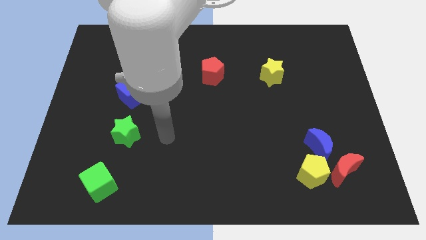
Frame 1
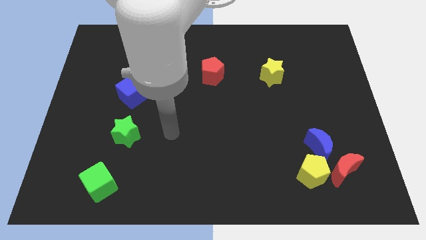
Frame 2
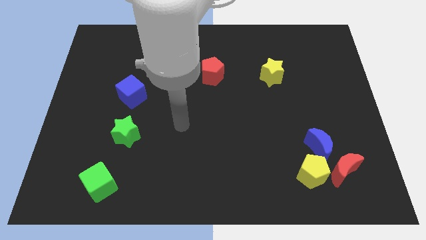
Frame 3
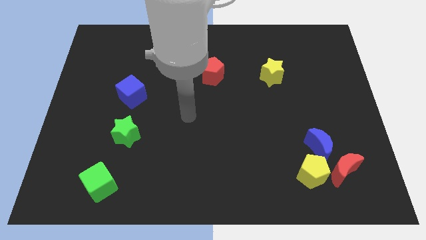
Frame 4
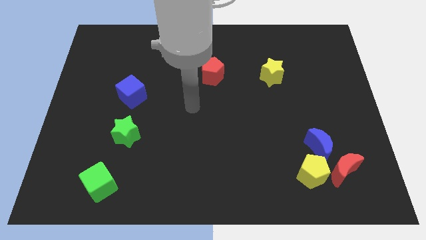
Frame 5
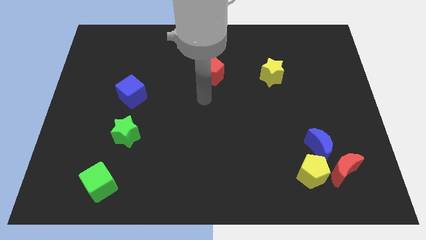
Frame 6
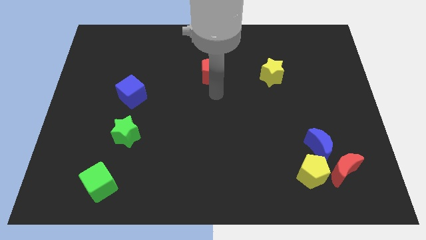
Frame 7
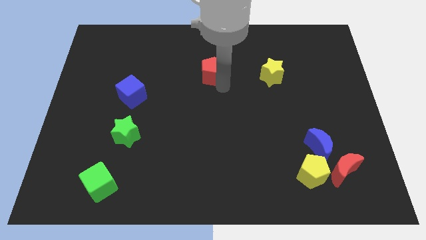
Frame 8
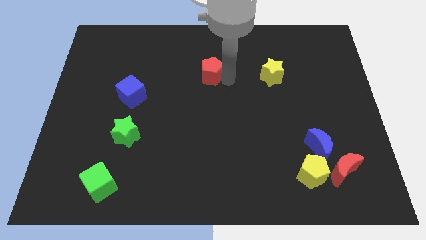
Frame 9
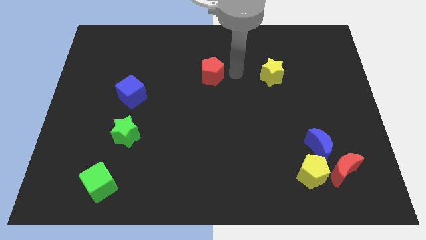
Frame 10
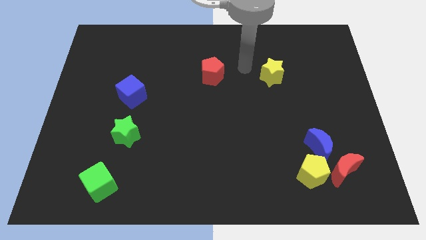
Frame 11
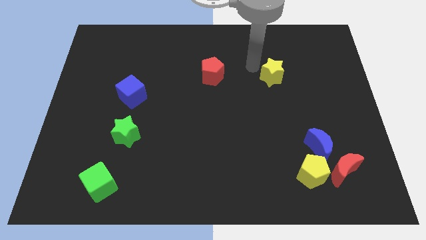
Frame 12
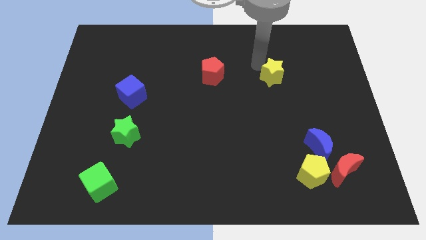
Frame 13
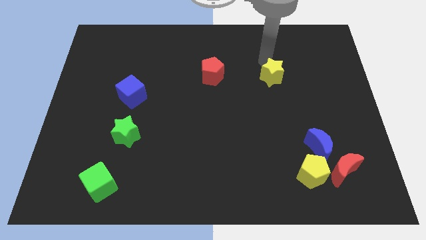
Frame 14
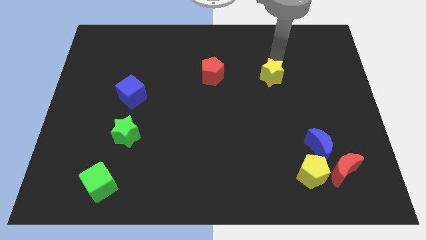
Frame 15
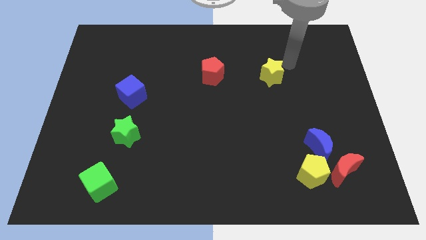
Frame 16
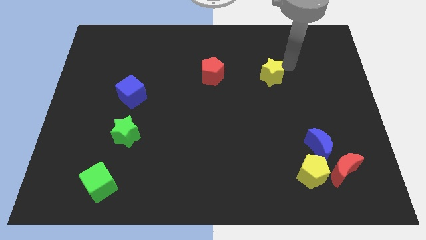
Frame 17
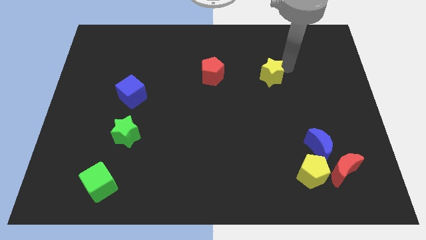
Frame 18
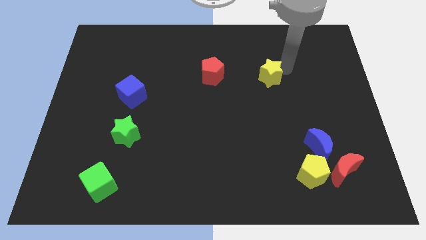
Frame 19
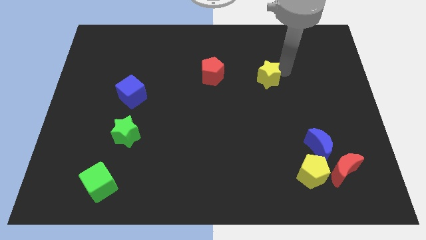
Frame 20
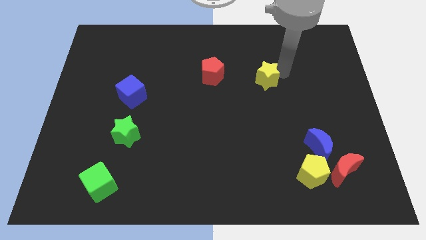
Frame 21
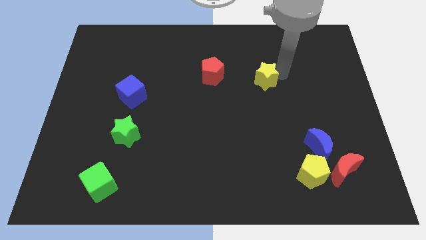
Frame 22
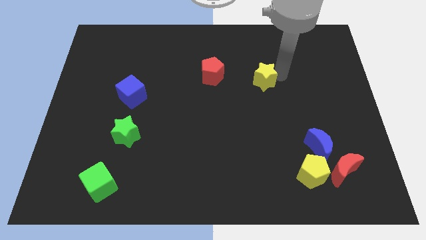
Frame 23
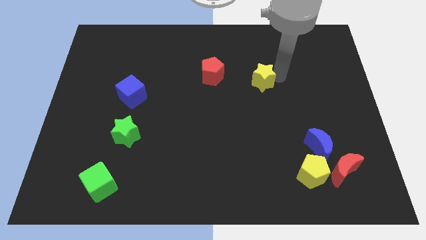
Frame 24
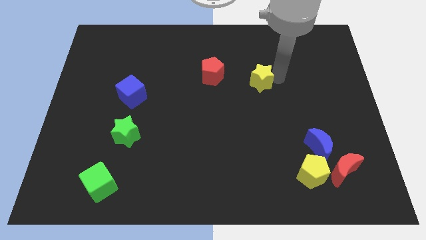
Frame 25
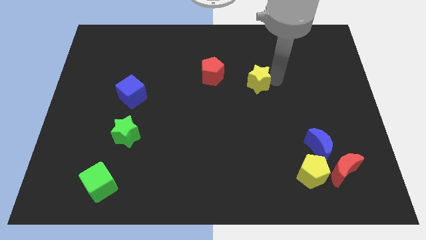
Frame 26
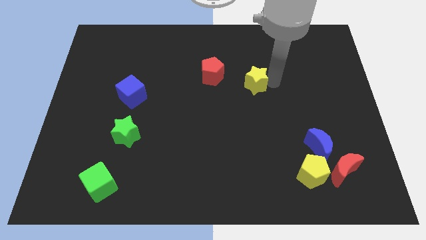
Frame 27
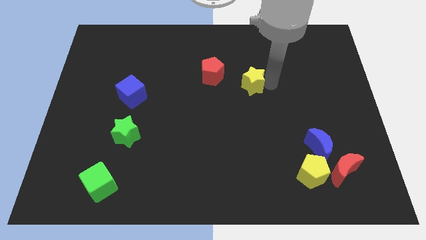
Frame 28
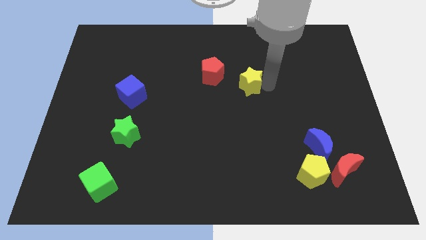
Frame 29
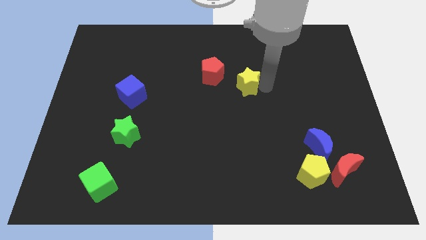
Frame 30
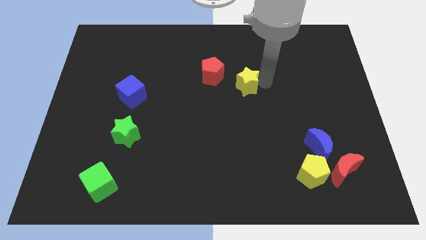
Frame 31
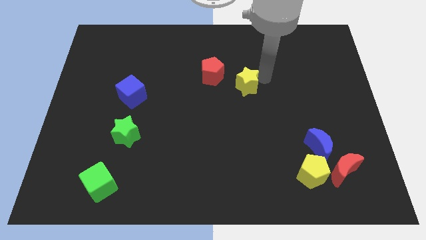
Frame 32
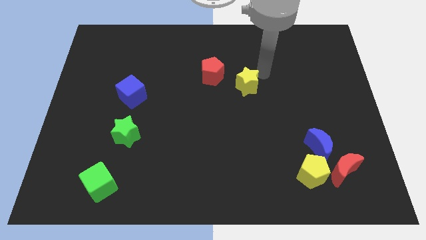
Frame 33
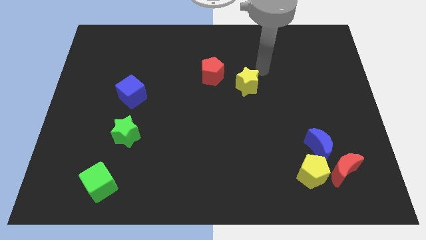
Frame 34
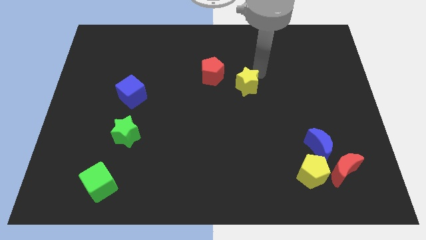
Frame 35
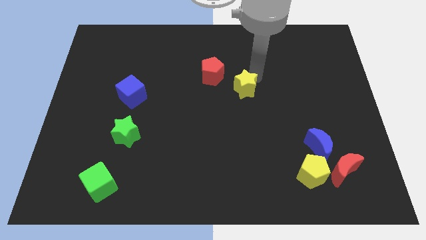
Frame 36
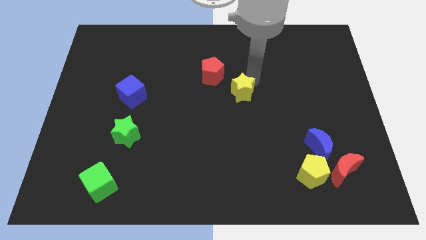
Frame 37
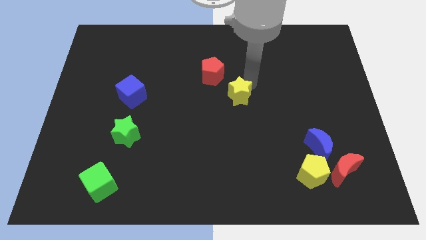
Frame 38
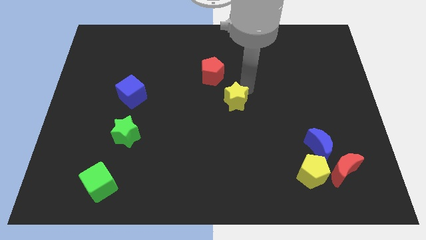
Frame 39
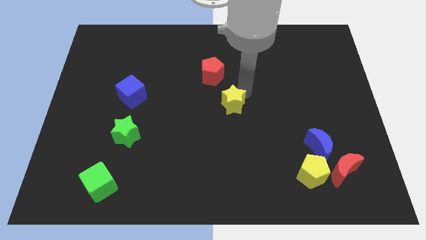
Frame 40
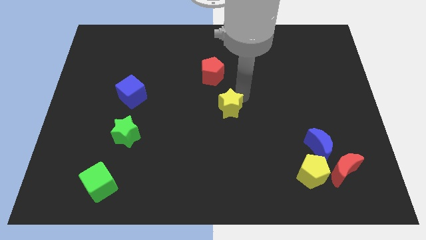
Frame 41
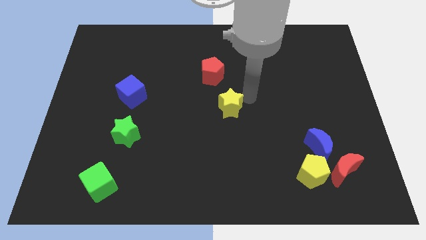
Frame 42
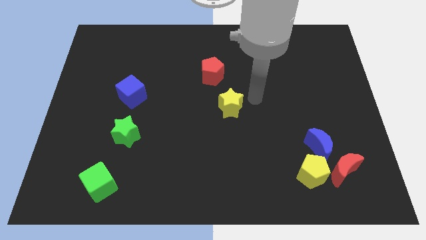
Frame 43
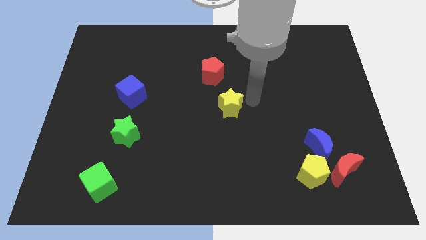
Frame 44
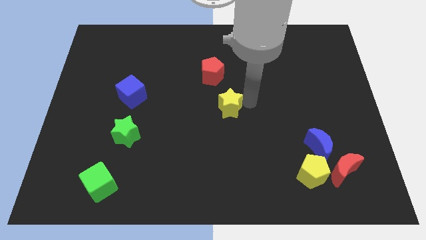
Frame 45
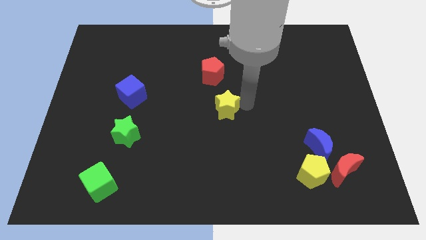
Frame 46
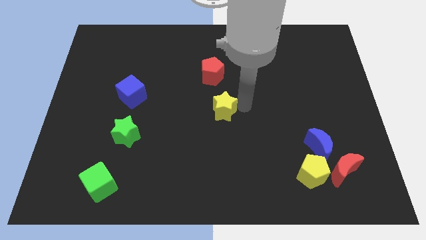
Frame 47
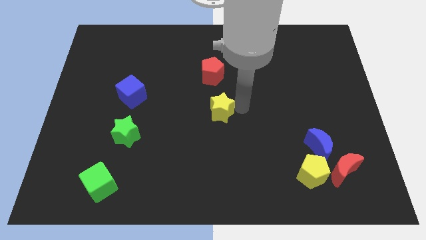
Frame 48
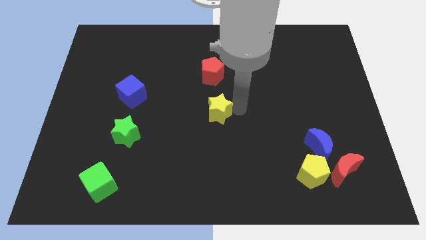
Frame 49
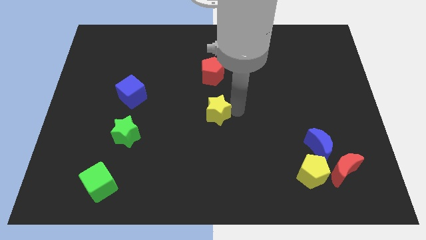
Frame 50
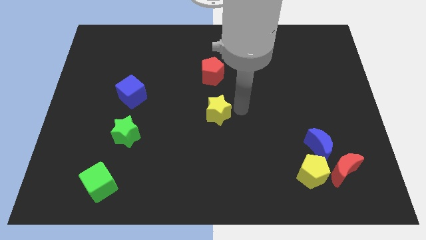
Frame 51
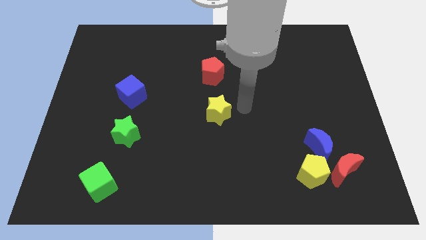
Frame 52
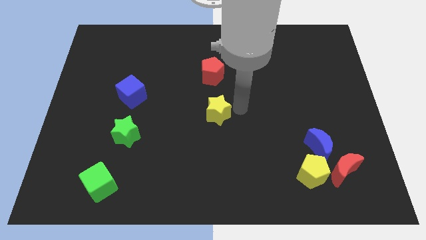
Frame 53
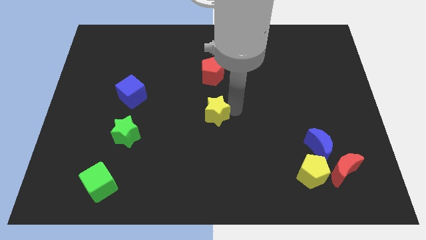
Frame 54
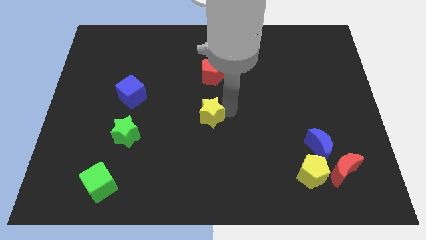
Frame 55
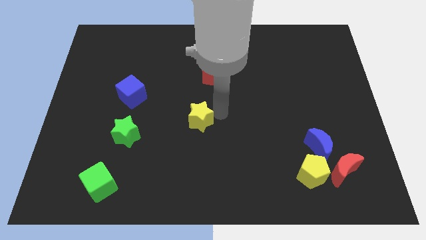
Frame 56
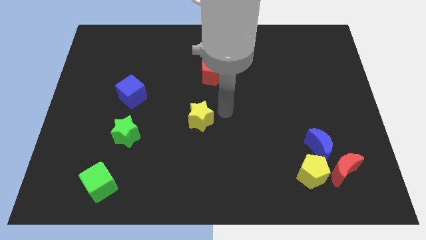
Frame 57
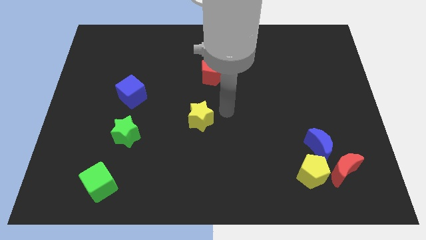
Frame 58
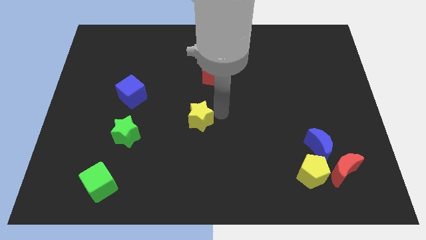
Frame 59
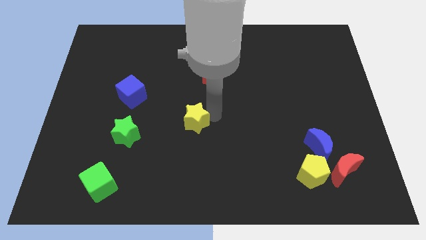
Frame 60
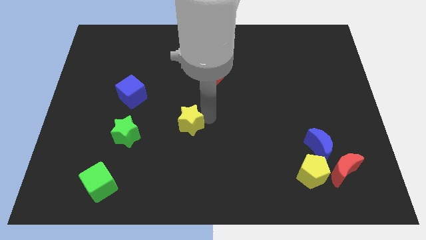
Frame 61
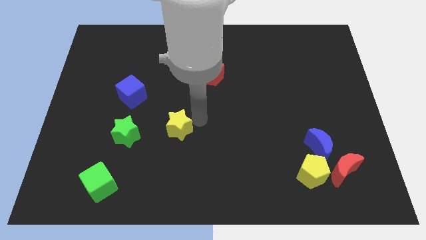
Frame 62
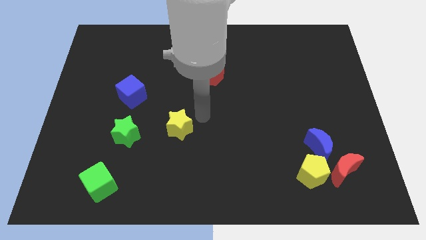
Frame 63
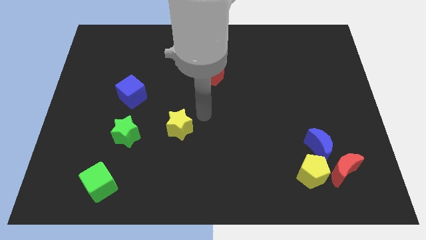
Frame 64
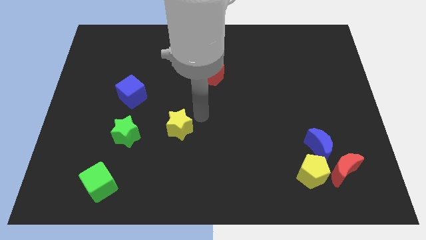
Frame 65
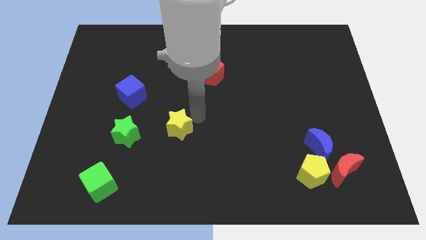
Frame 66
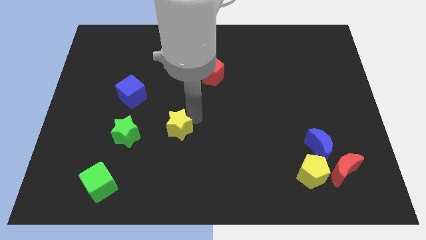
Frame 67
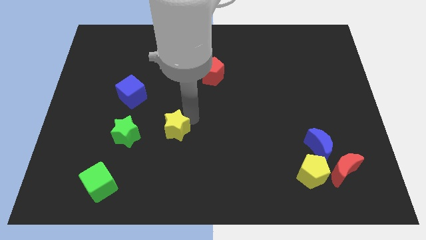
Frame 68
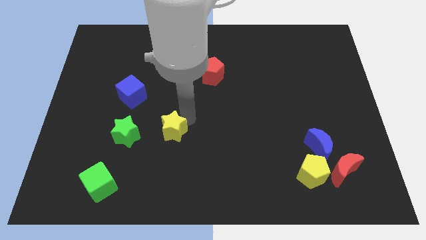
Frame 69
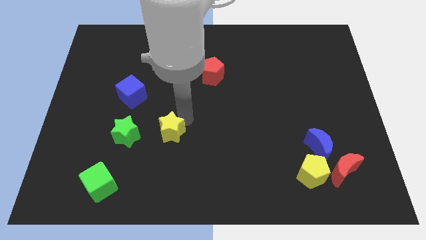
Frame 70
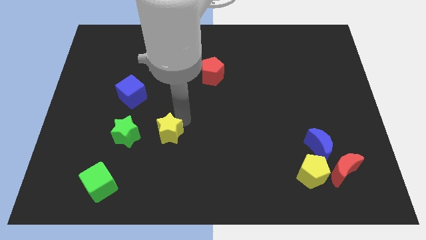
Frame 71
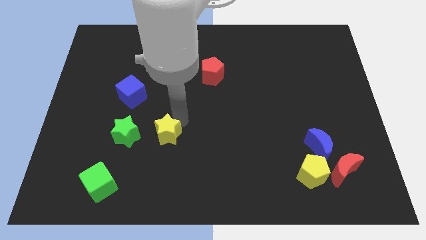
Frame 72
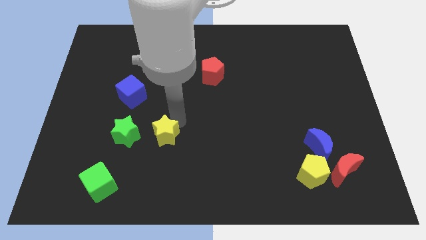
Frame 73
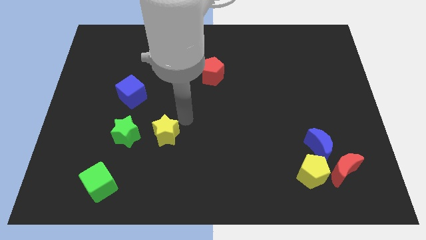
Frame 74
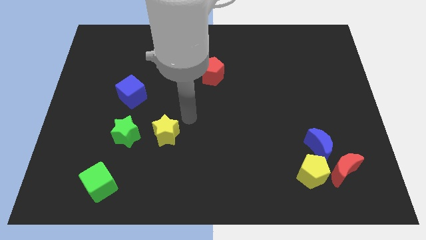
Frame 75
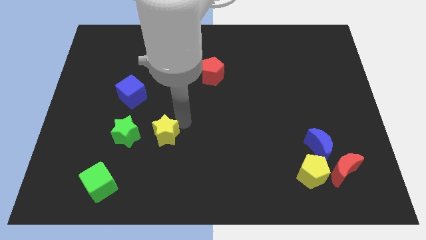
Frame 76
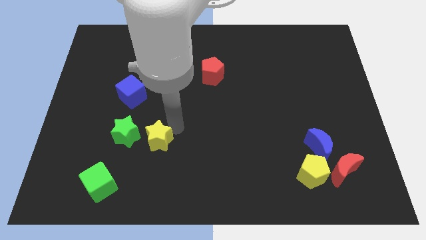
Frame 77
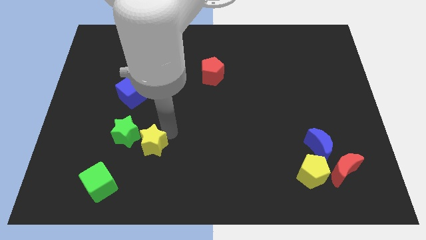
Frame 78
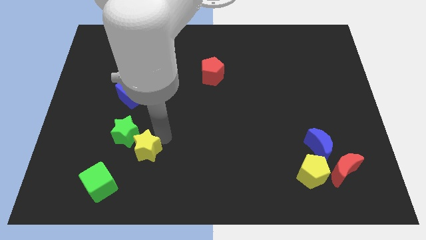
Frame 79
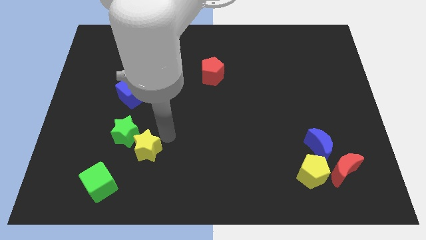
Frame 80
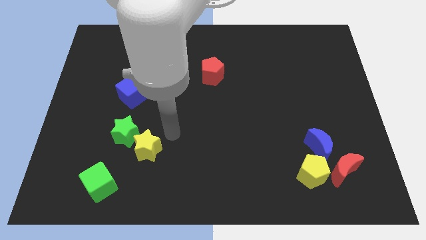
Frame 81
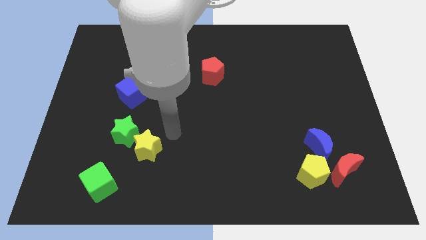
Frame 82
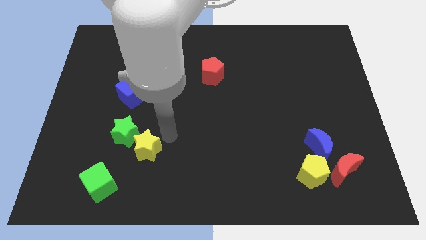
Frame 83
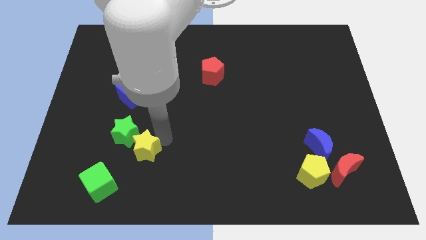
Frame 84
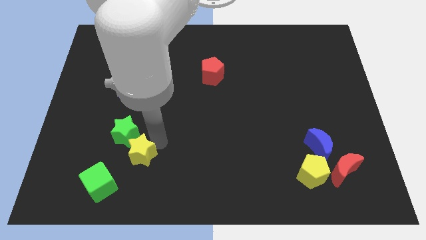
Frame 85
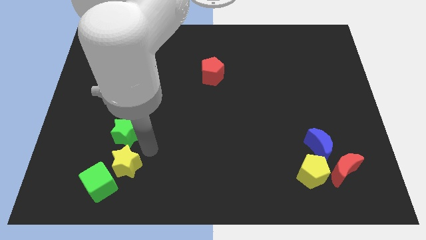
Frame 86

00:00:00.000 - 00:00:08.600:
move the yellow star close to the green cube
